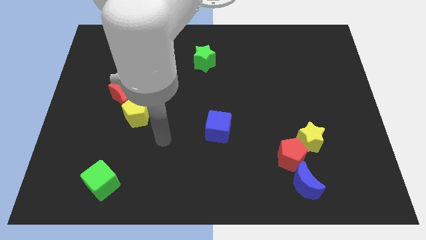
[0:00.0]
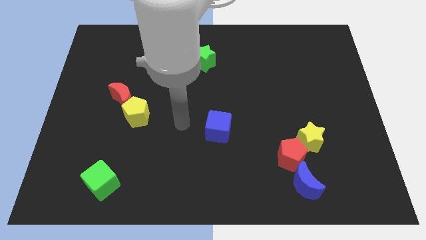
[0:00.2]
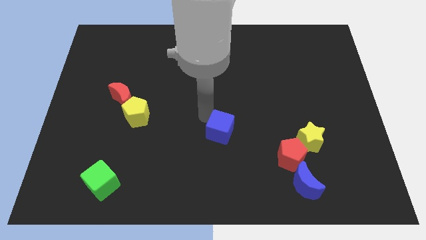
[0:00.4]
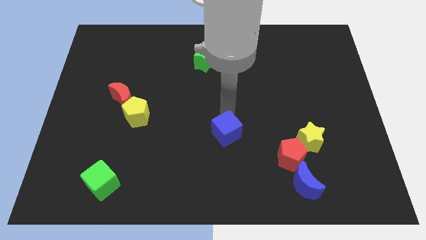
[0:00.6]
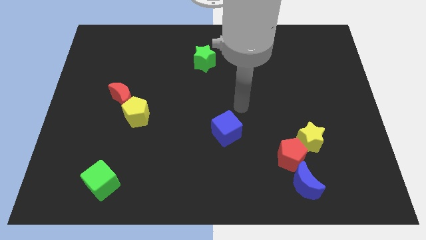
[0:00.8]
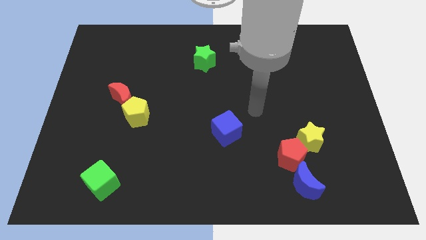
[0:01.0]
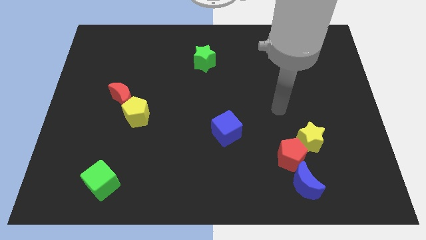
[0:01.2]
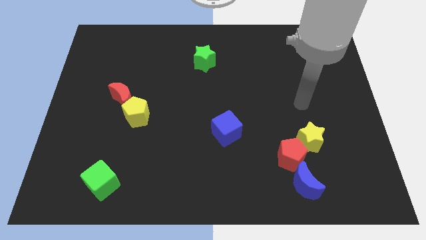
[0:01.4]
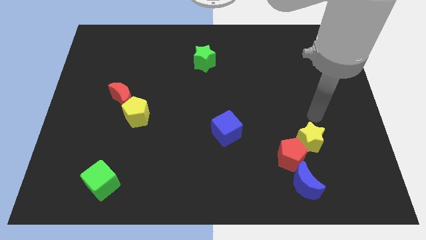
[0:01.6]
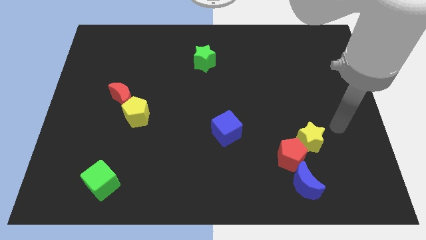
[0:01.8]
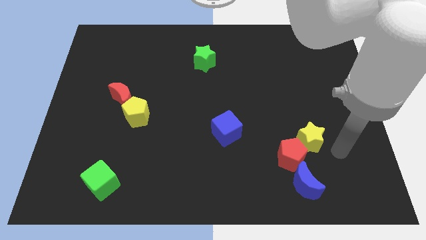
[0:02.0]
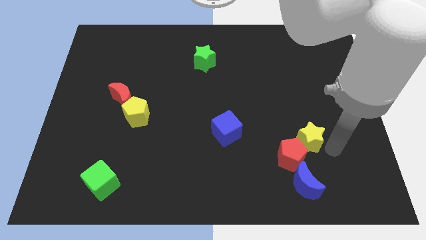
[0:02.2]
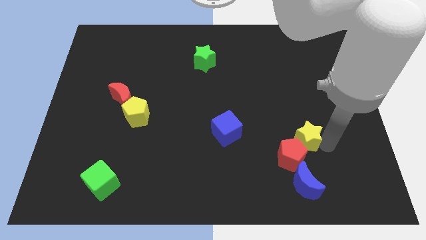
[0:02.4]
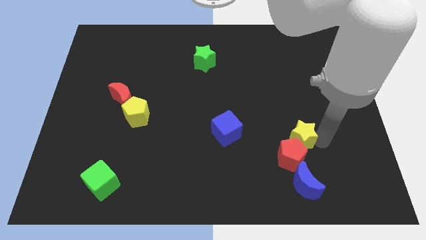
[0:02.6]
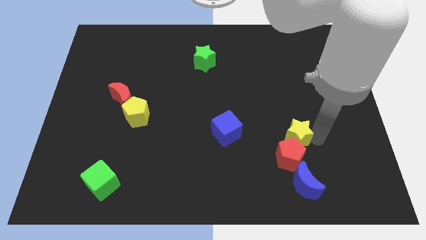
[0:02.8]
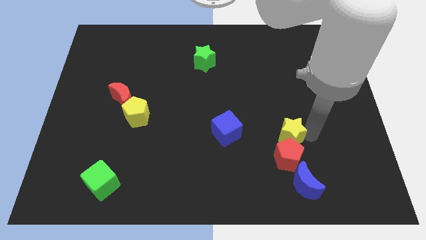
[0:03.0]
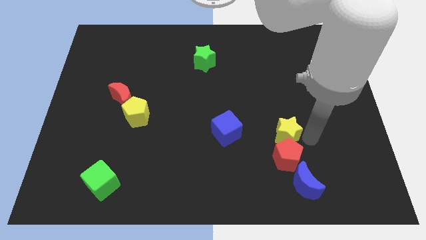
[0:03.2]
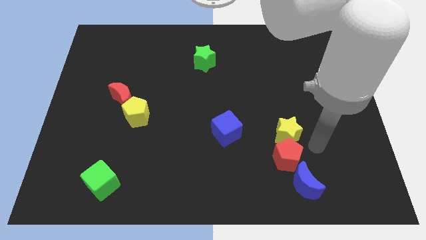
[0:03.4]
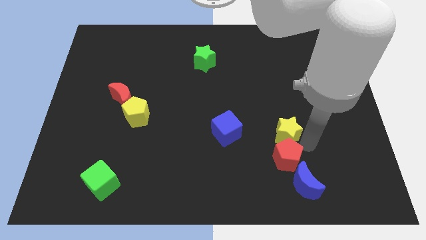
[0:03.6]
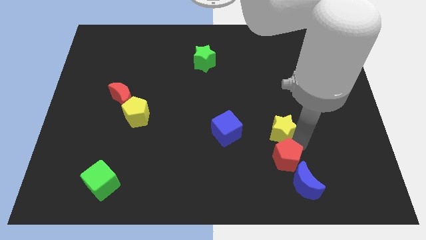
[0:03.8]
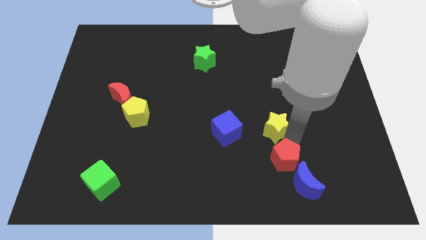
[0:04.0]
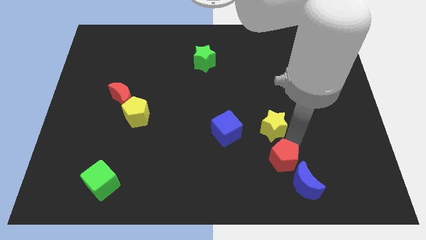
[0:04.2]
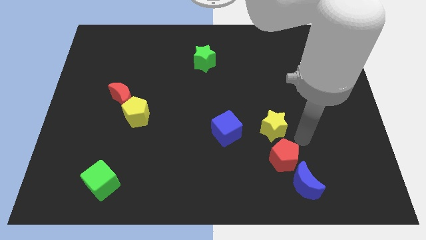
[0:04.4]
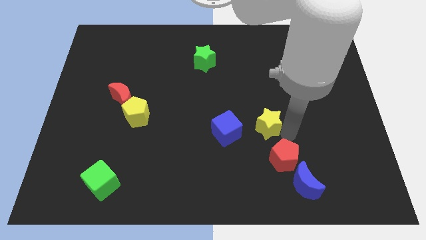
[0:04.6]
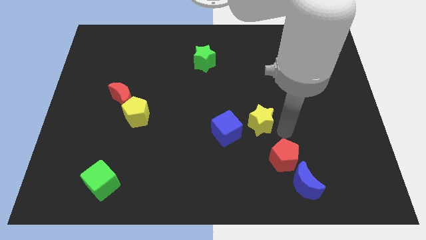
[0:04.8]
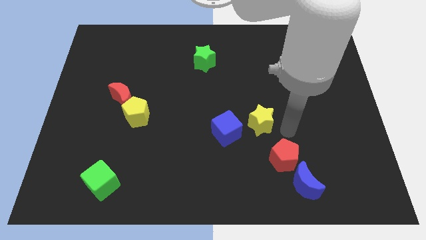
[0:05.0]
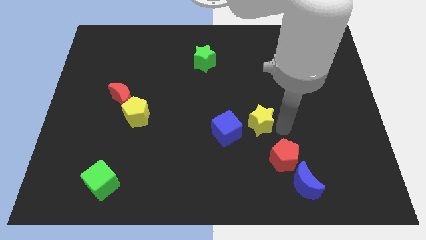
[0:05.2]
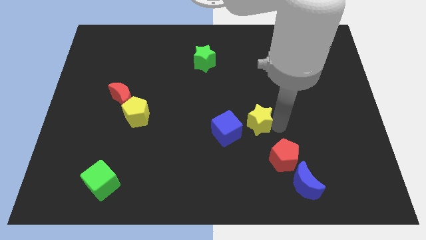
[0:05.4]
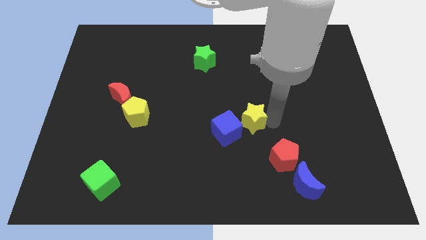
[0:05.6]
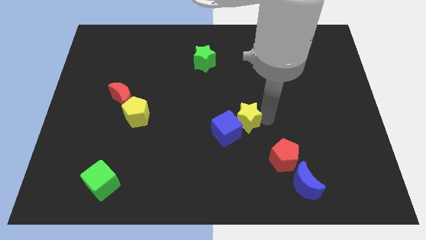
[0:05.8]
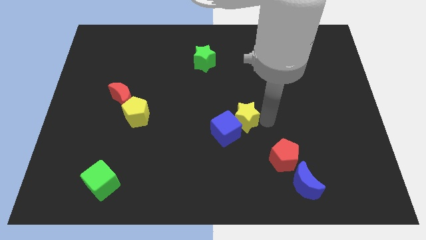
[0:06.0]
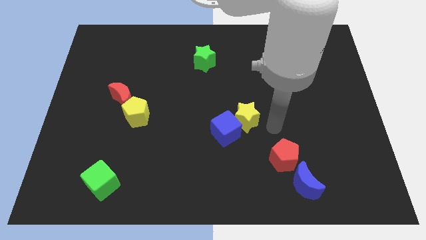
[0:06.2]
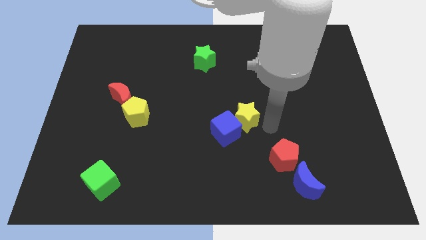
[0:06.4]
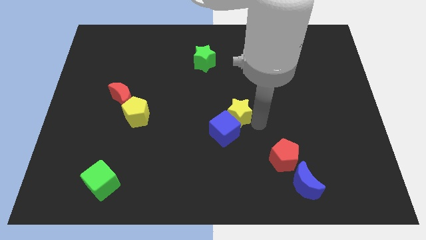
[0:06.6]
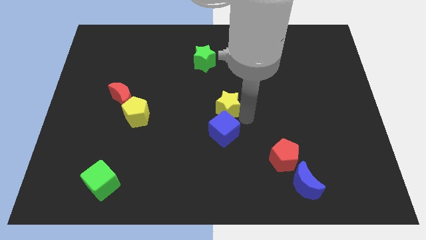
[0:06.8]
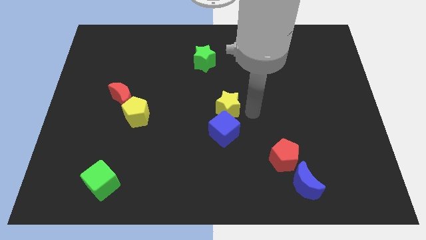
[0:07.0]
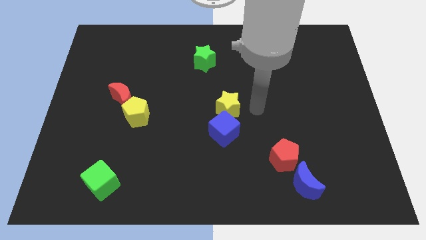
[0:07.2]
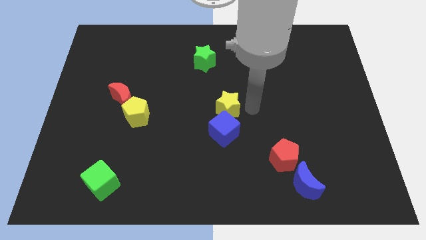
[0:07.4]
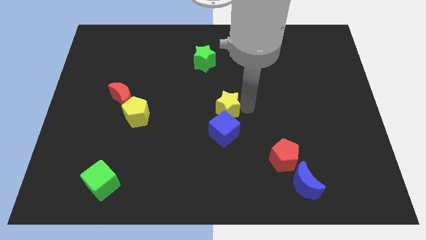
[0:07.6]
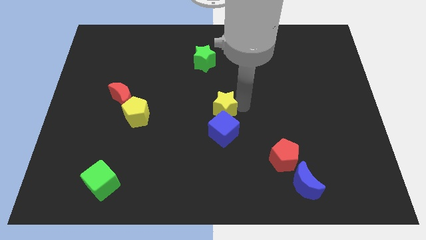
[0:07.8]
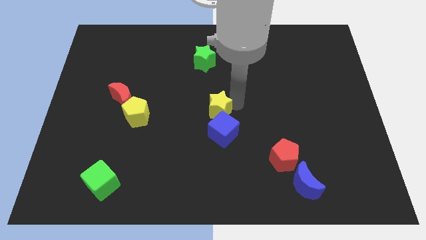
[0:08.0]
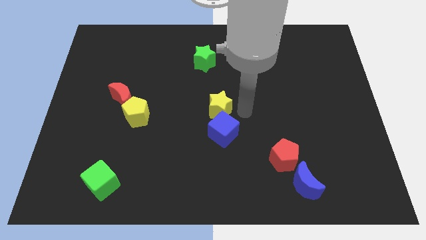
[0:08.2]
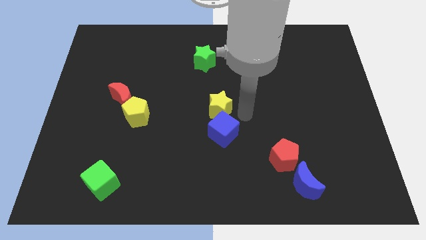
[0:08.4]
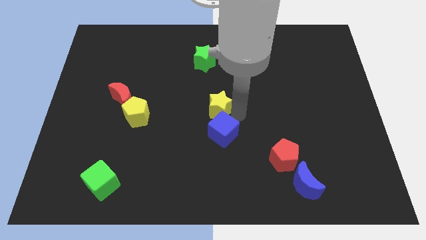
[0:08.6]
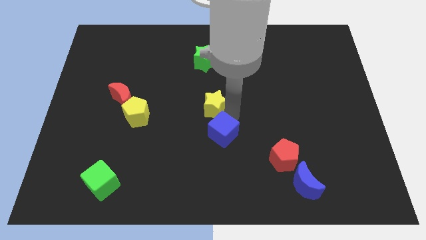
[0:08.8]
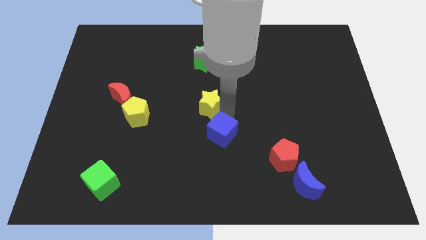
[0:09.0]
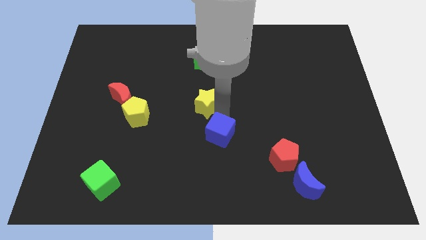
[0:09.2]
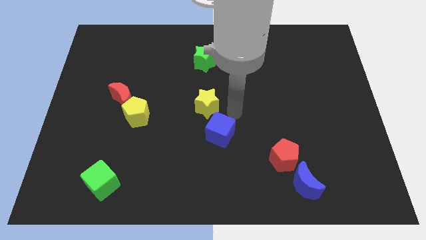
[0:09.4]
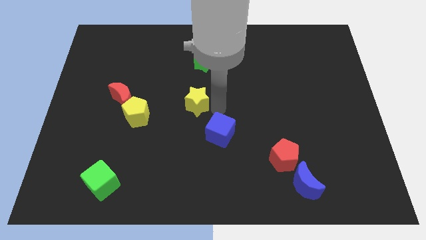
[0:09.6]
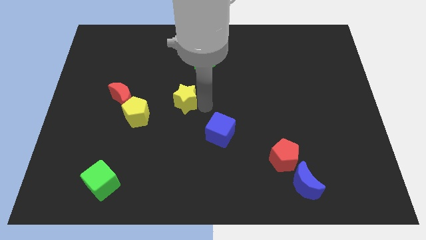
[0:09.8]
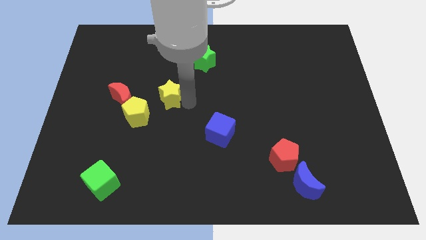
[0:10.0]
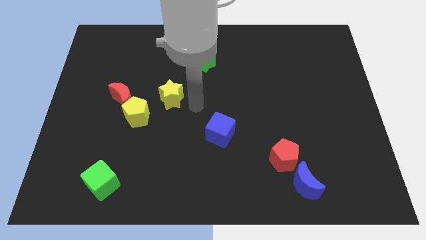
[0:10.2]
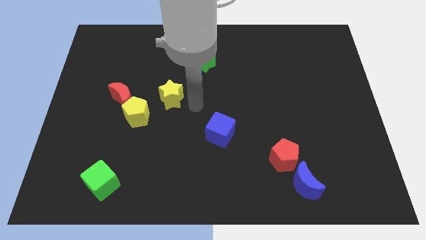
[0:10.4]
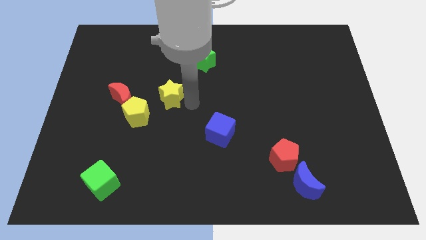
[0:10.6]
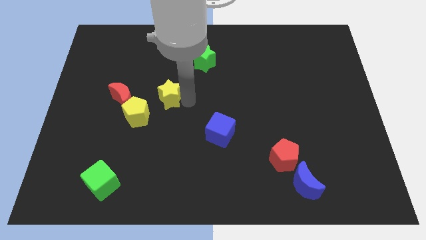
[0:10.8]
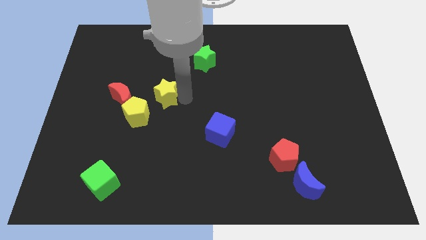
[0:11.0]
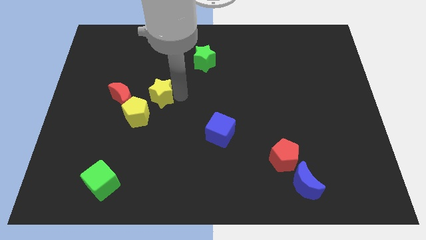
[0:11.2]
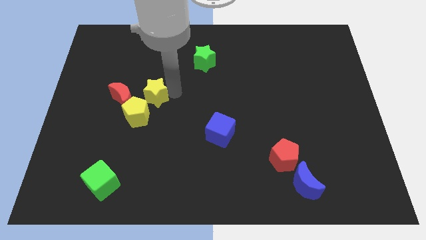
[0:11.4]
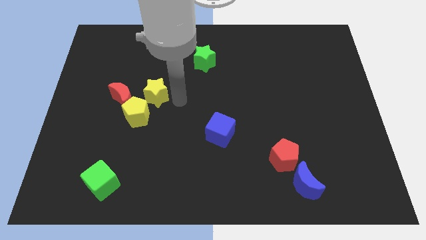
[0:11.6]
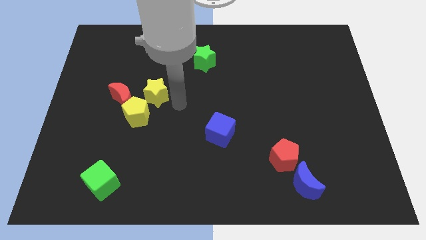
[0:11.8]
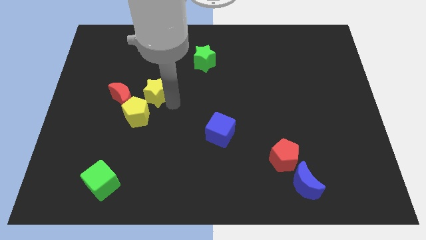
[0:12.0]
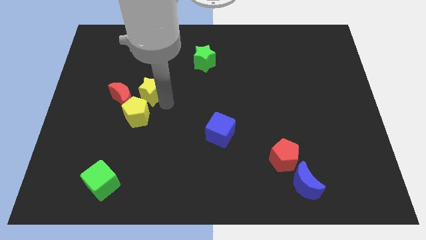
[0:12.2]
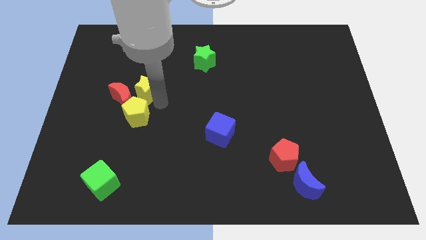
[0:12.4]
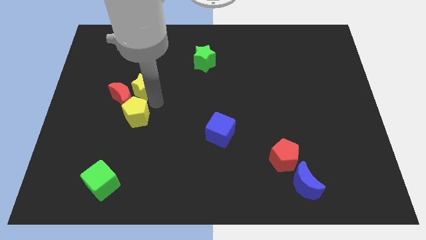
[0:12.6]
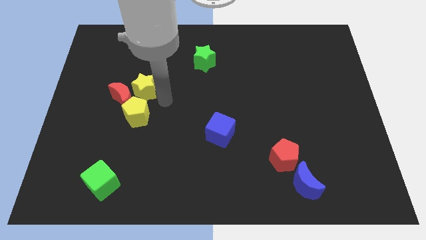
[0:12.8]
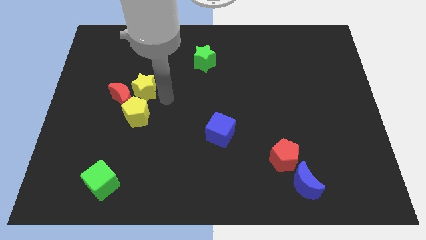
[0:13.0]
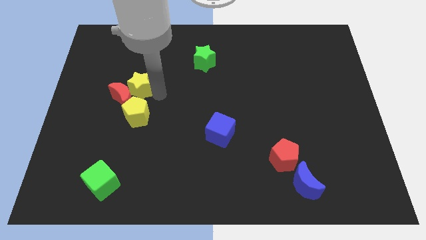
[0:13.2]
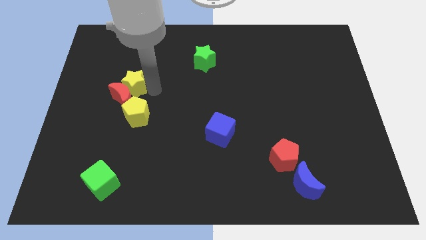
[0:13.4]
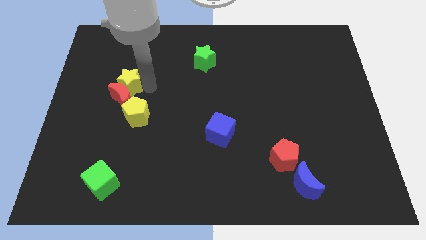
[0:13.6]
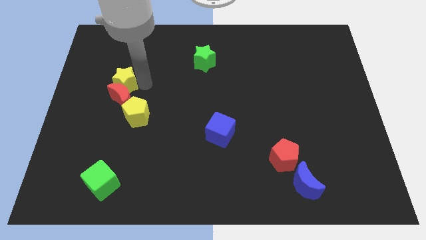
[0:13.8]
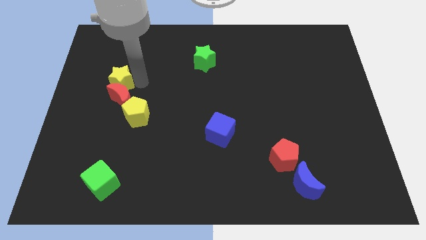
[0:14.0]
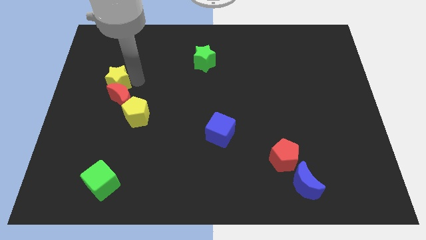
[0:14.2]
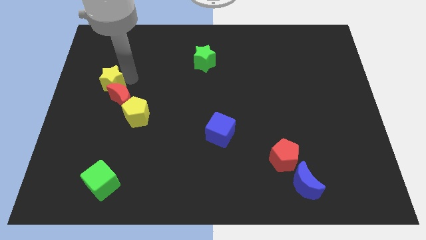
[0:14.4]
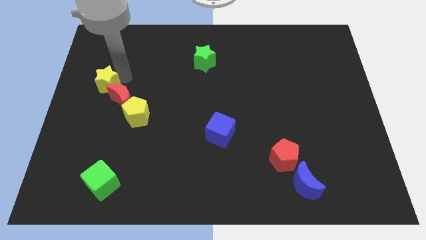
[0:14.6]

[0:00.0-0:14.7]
put the yellow star to the center left

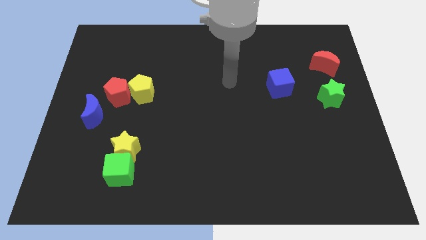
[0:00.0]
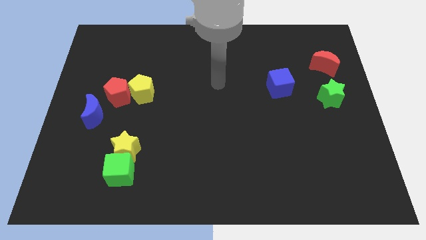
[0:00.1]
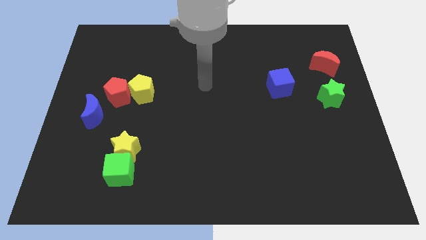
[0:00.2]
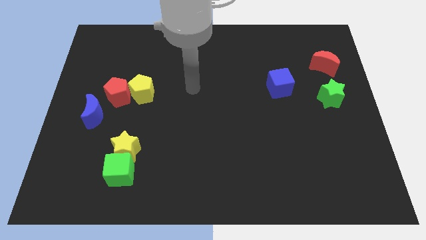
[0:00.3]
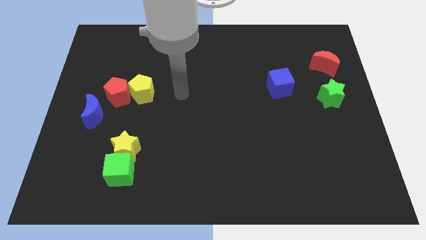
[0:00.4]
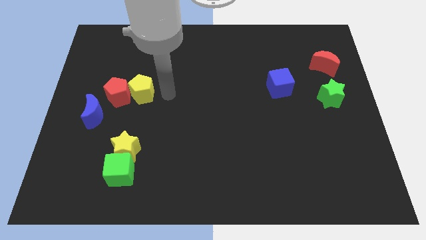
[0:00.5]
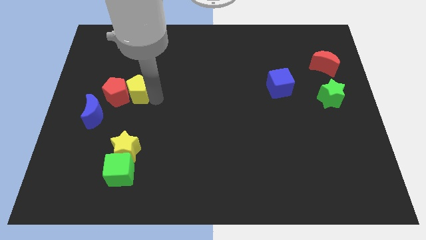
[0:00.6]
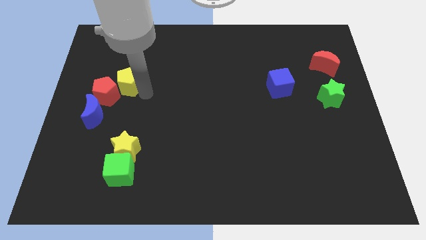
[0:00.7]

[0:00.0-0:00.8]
push the red pentagon to the center left
